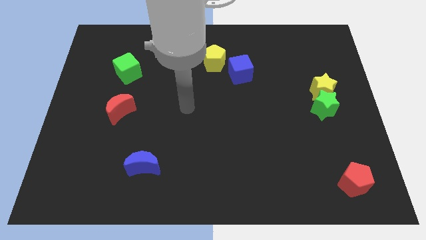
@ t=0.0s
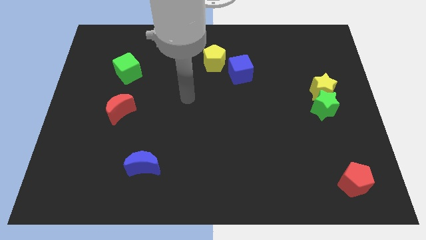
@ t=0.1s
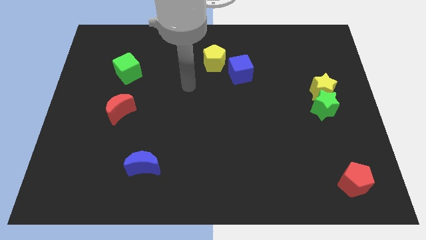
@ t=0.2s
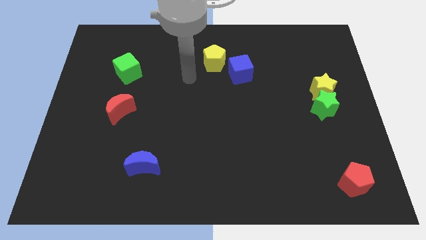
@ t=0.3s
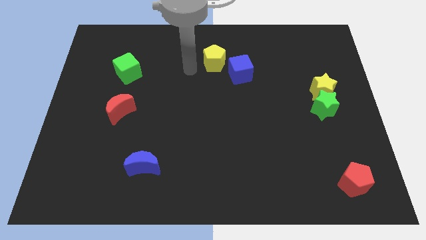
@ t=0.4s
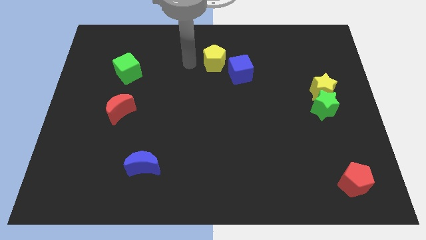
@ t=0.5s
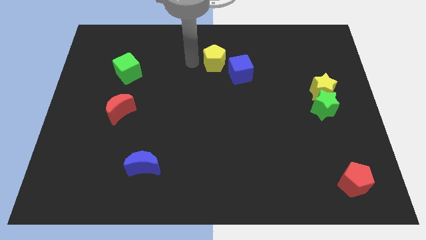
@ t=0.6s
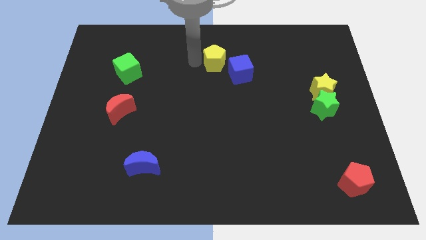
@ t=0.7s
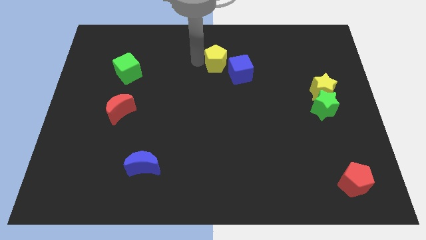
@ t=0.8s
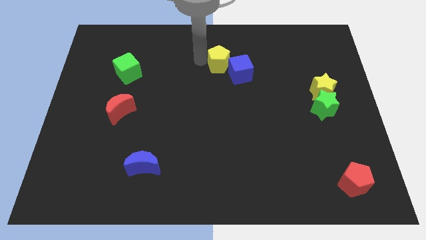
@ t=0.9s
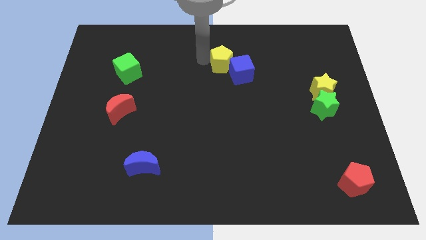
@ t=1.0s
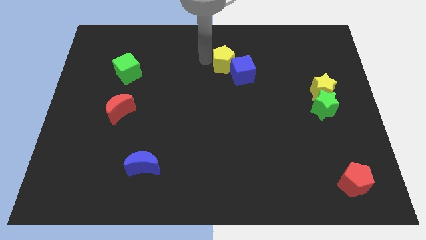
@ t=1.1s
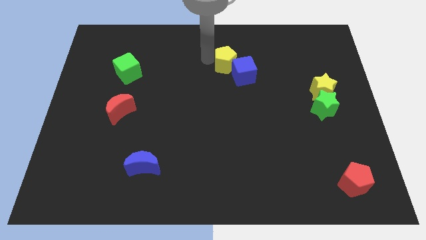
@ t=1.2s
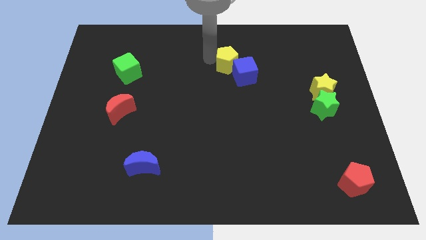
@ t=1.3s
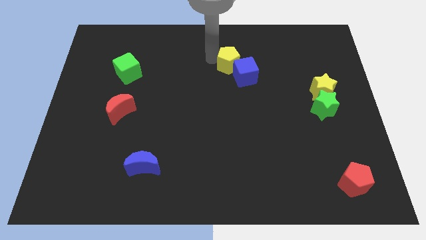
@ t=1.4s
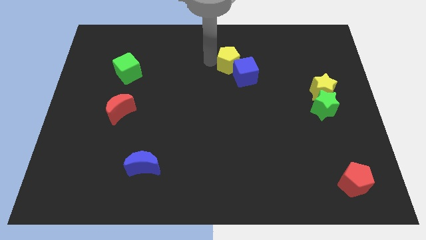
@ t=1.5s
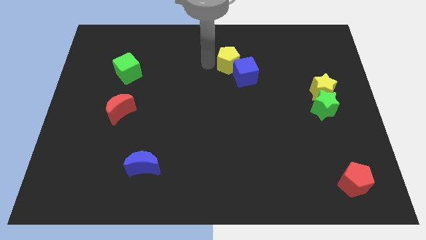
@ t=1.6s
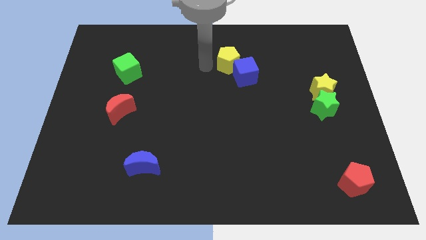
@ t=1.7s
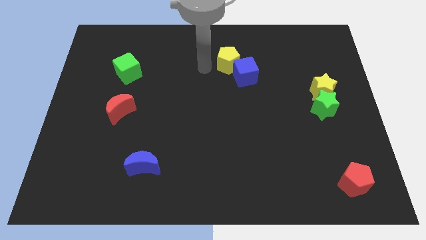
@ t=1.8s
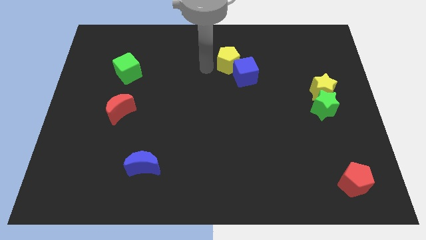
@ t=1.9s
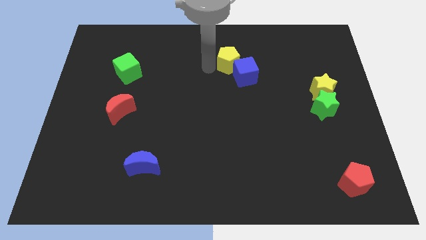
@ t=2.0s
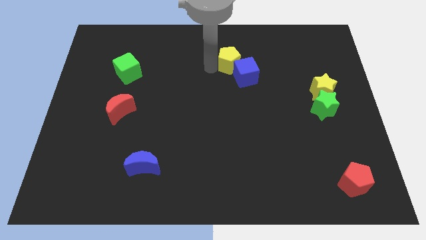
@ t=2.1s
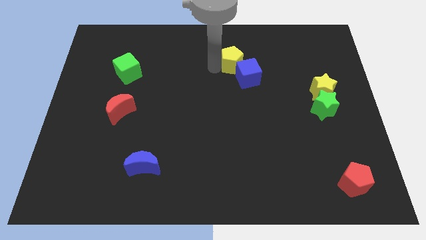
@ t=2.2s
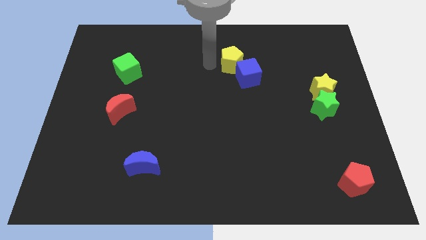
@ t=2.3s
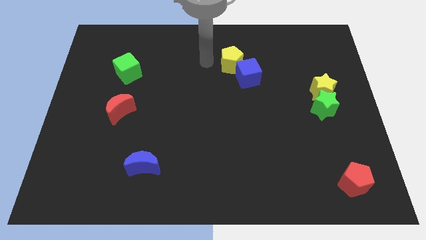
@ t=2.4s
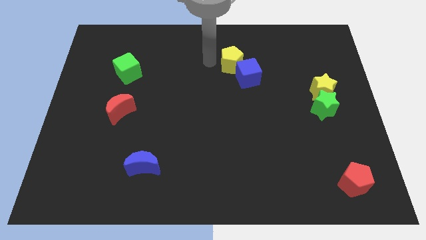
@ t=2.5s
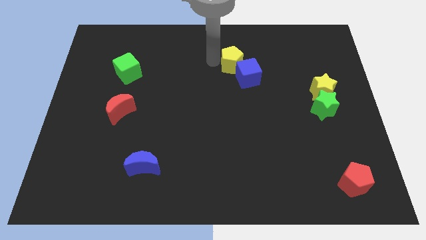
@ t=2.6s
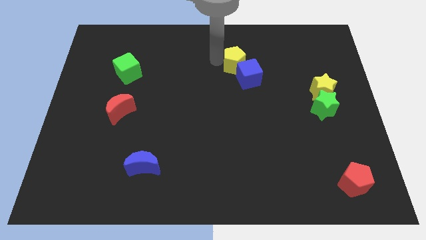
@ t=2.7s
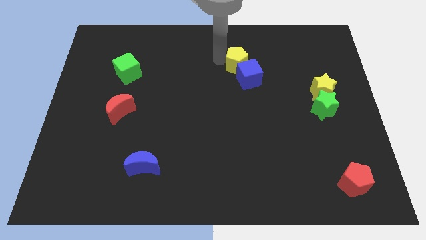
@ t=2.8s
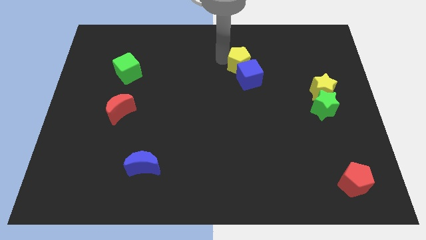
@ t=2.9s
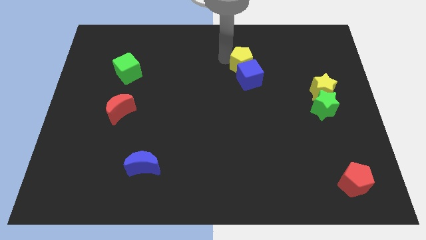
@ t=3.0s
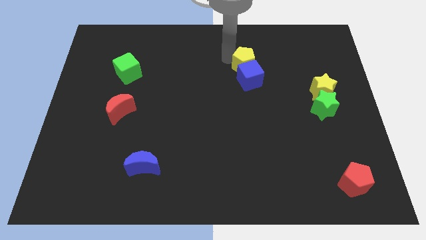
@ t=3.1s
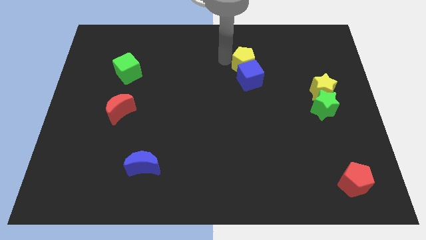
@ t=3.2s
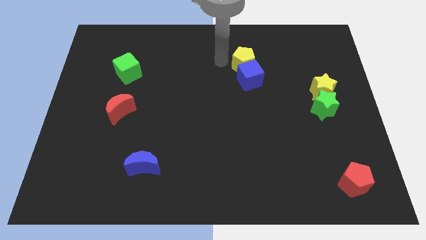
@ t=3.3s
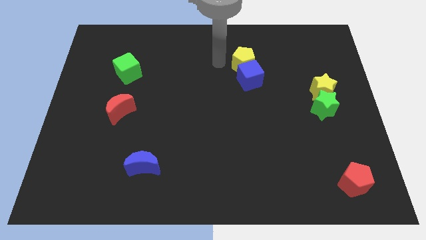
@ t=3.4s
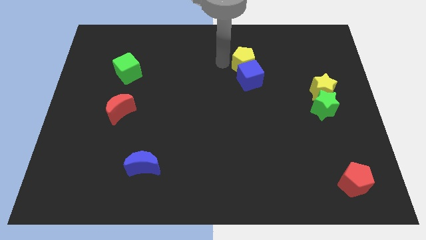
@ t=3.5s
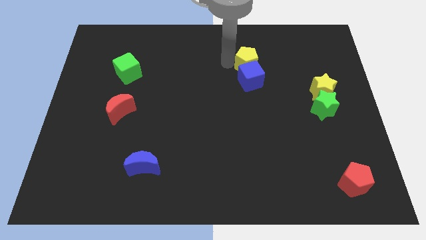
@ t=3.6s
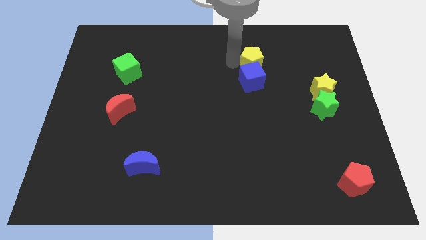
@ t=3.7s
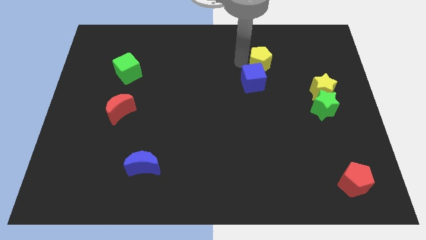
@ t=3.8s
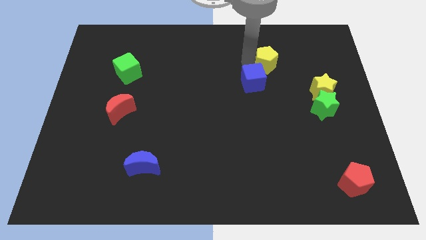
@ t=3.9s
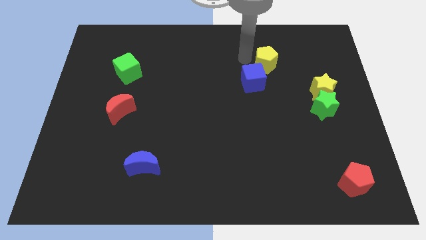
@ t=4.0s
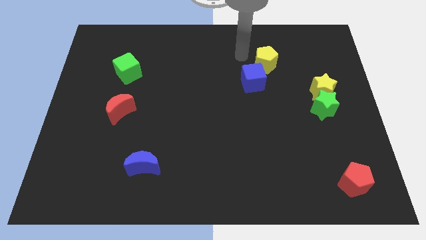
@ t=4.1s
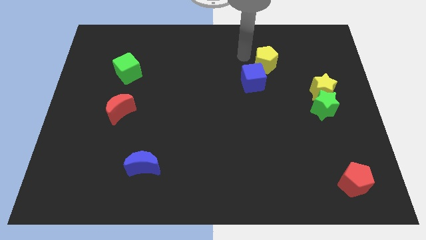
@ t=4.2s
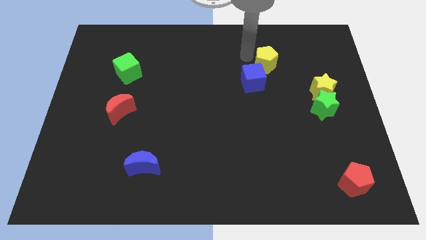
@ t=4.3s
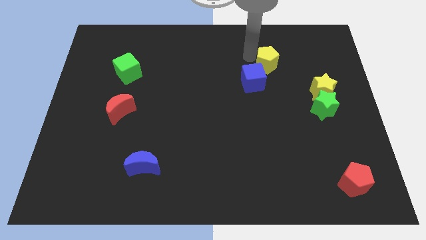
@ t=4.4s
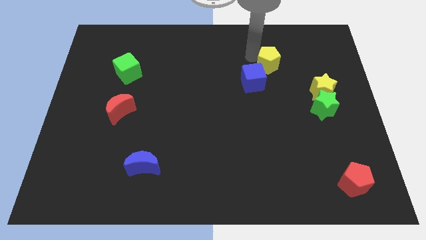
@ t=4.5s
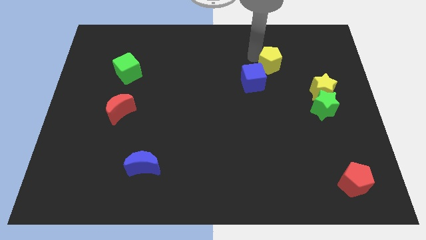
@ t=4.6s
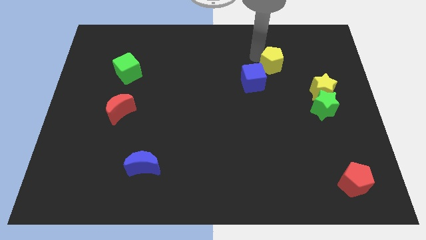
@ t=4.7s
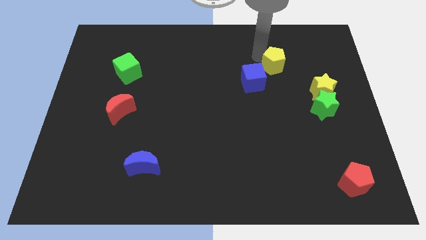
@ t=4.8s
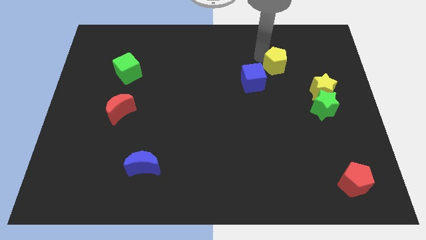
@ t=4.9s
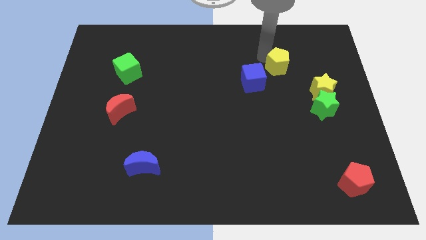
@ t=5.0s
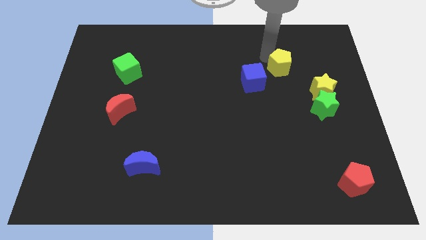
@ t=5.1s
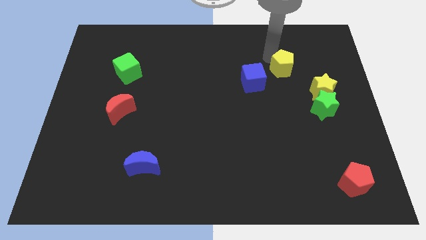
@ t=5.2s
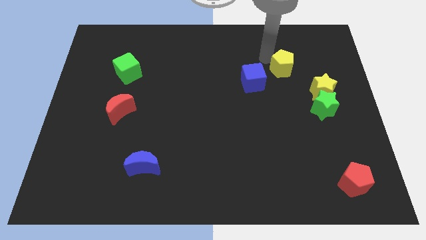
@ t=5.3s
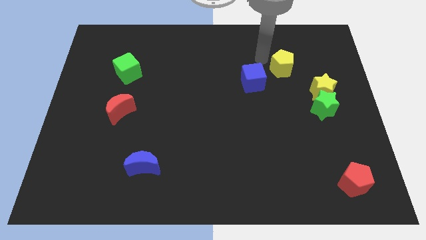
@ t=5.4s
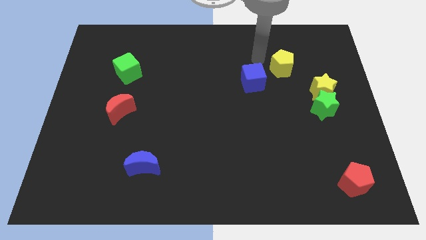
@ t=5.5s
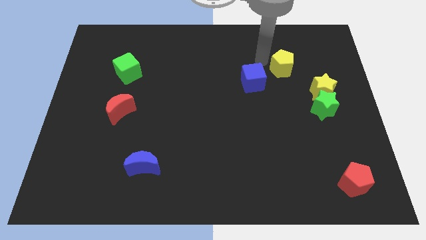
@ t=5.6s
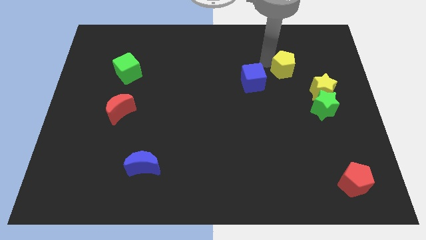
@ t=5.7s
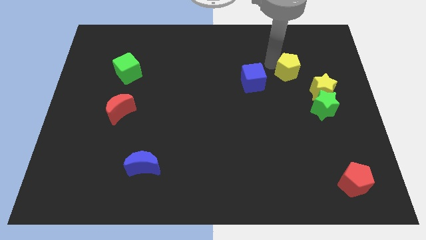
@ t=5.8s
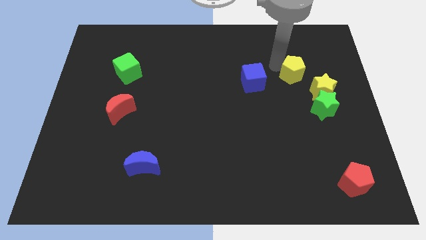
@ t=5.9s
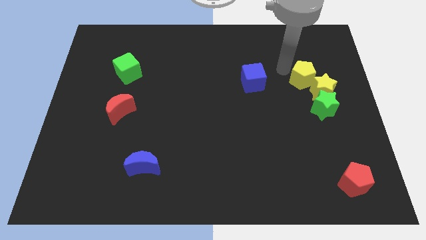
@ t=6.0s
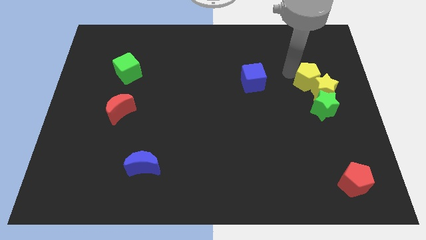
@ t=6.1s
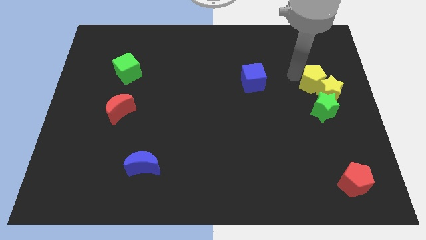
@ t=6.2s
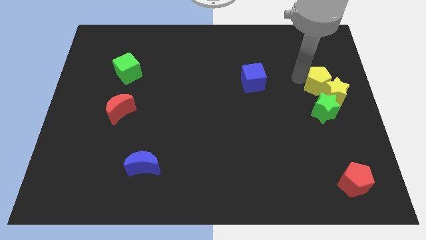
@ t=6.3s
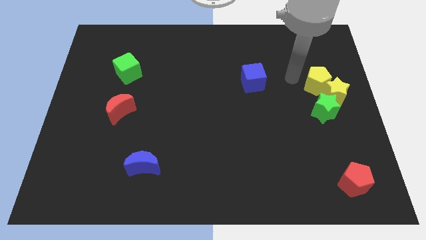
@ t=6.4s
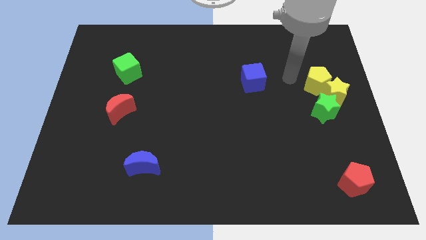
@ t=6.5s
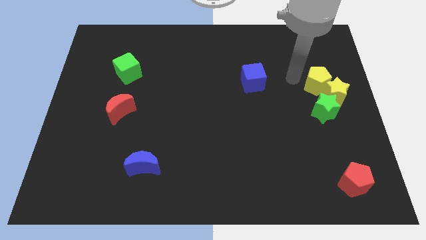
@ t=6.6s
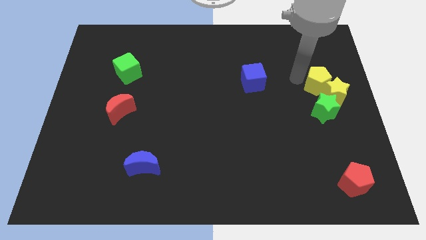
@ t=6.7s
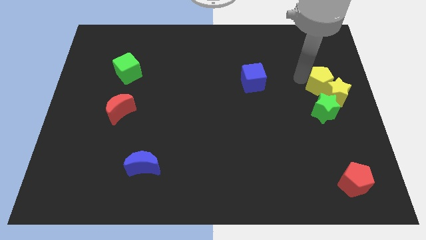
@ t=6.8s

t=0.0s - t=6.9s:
put the yellow pentagon to the right side
